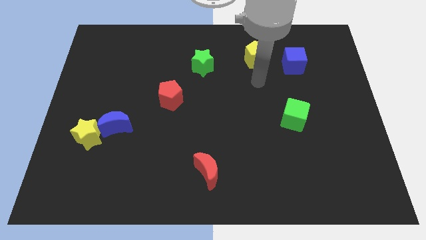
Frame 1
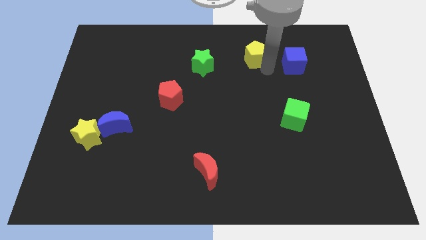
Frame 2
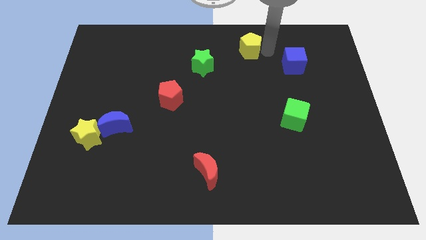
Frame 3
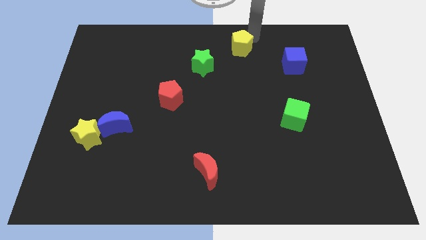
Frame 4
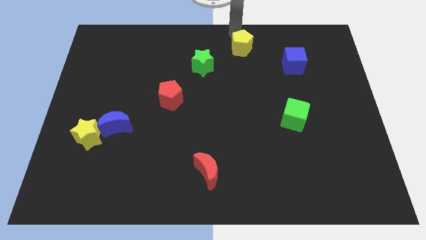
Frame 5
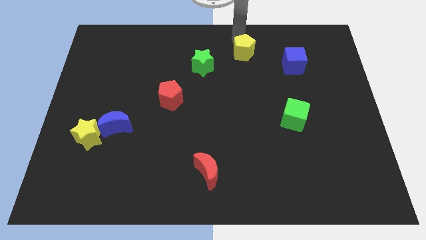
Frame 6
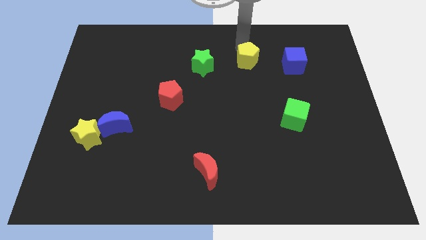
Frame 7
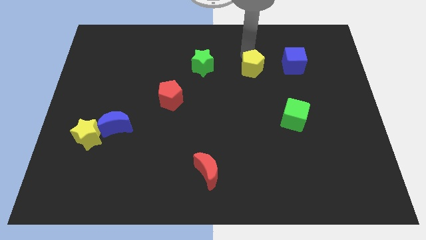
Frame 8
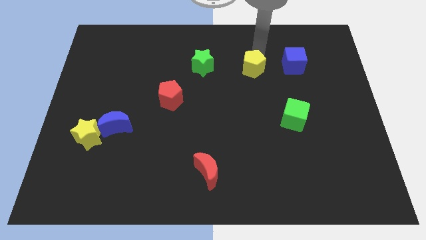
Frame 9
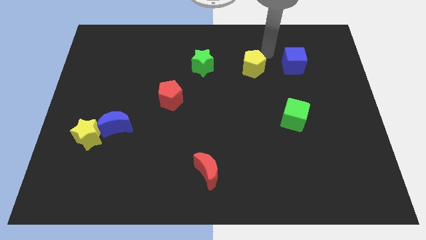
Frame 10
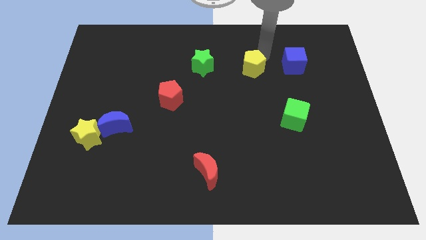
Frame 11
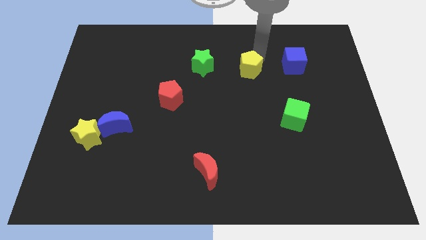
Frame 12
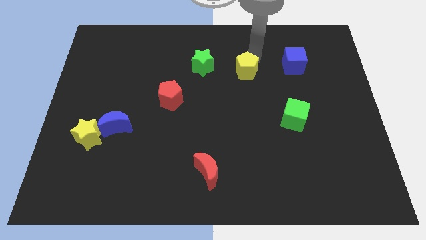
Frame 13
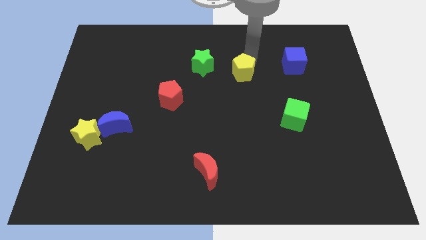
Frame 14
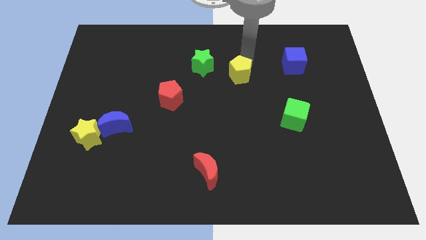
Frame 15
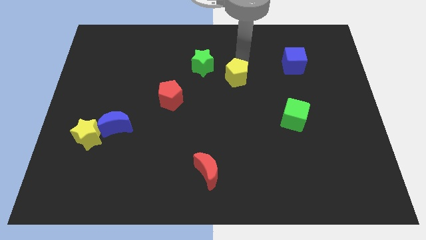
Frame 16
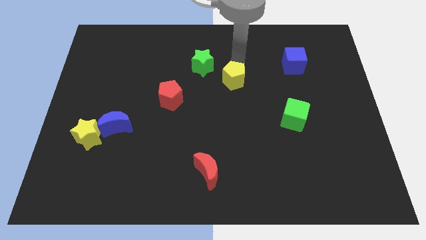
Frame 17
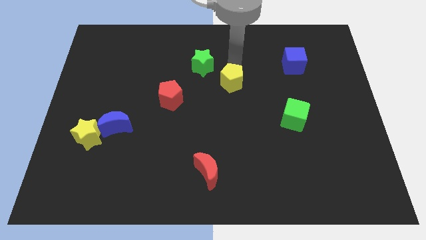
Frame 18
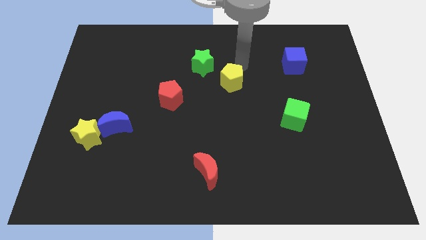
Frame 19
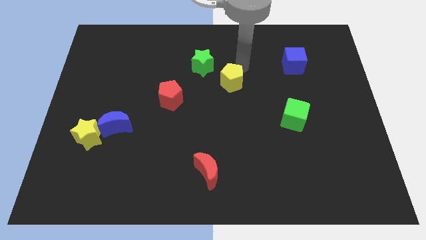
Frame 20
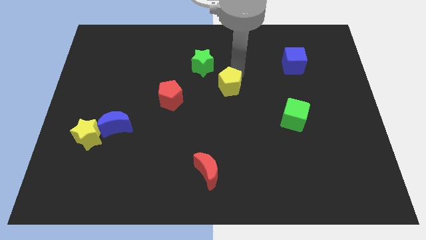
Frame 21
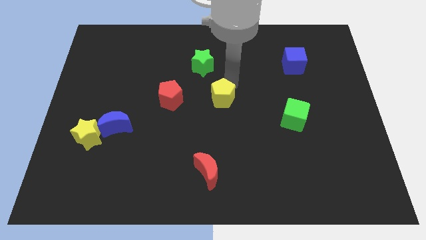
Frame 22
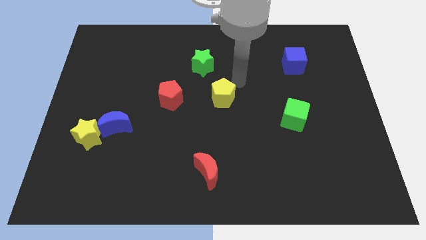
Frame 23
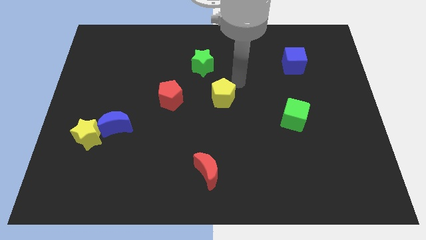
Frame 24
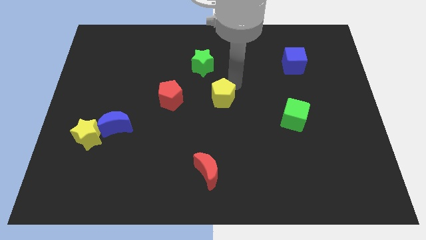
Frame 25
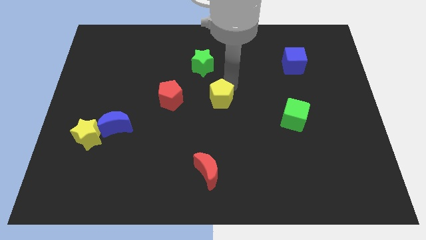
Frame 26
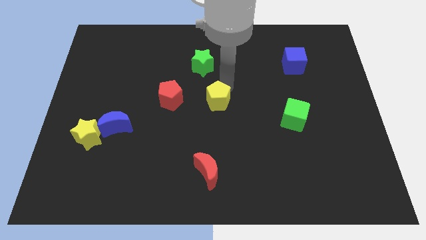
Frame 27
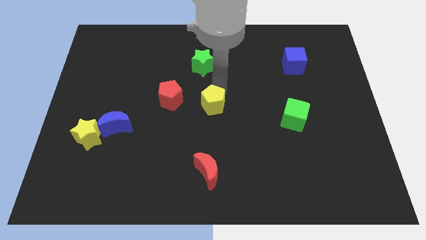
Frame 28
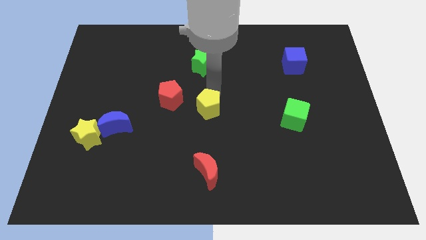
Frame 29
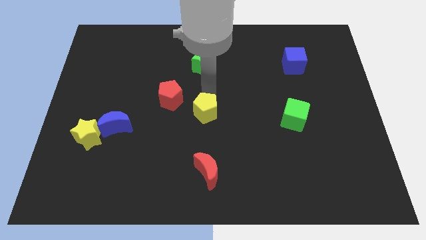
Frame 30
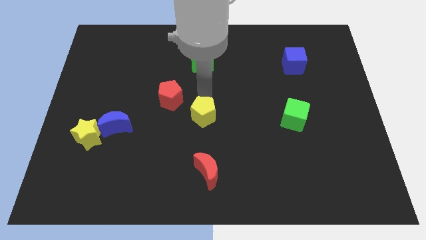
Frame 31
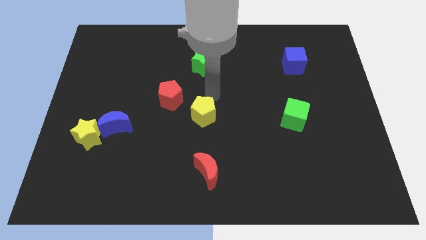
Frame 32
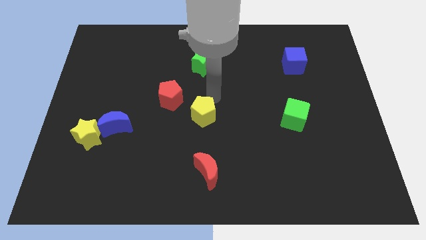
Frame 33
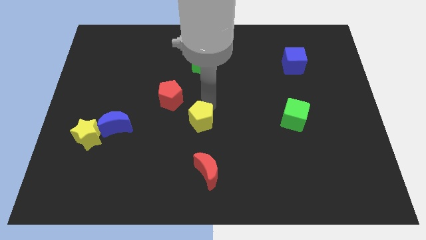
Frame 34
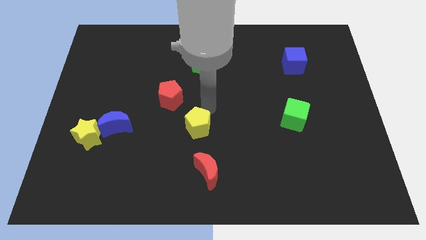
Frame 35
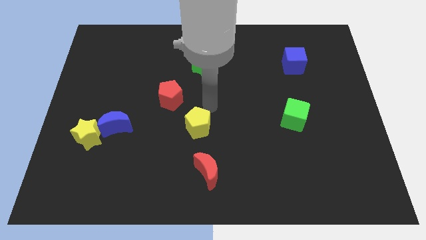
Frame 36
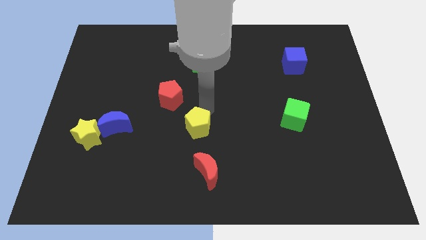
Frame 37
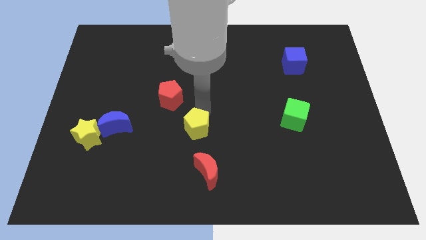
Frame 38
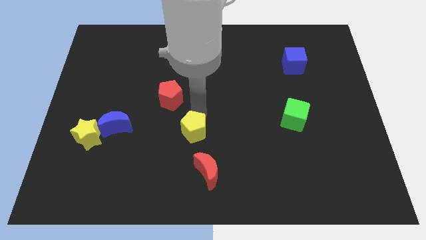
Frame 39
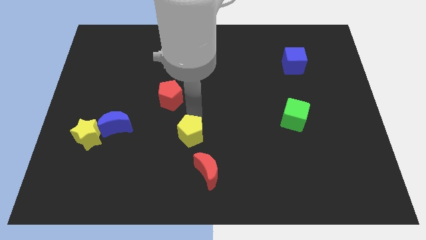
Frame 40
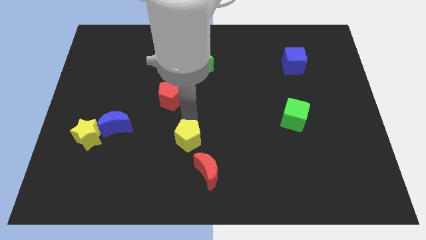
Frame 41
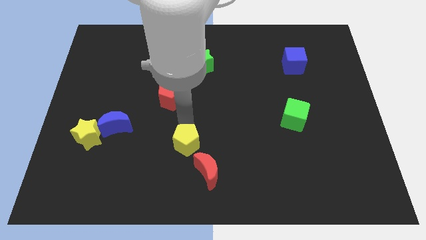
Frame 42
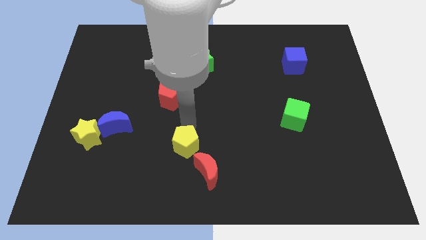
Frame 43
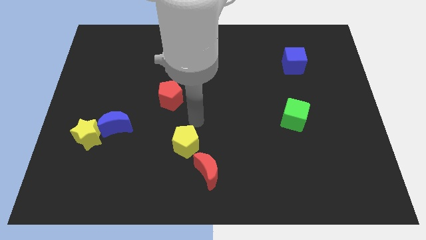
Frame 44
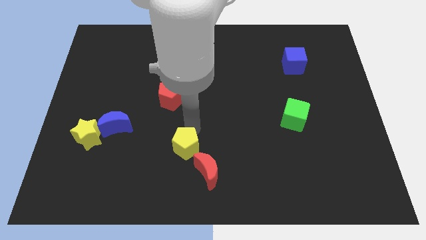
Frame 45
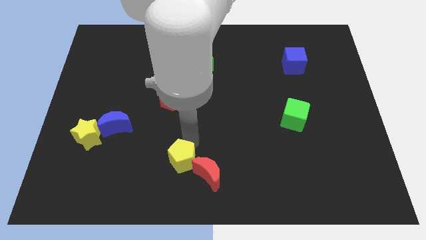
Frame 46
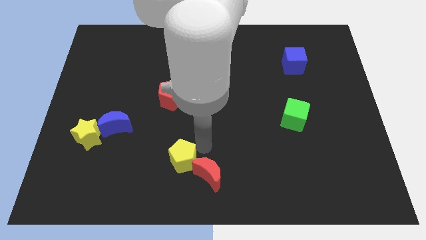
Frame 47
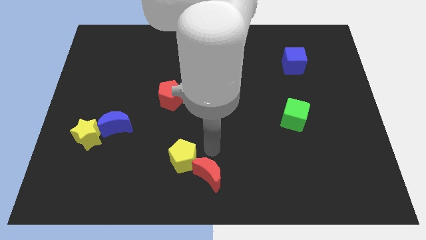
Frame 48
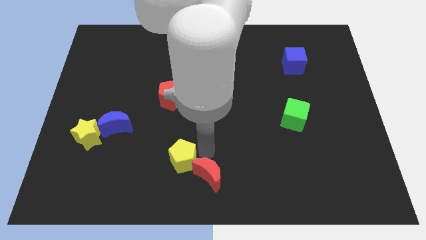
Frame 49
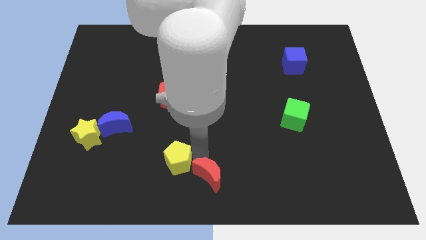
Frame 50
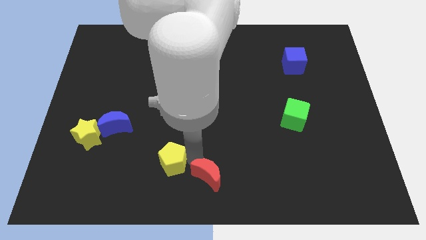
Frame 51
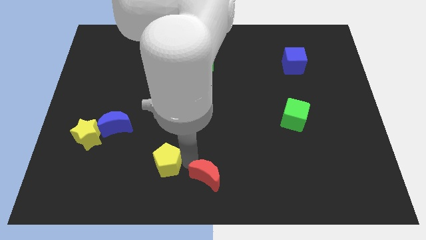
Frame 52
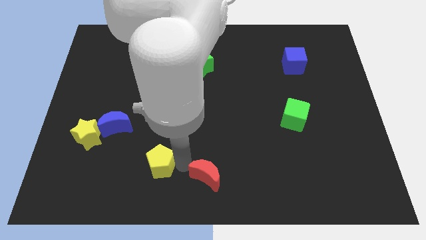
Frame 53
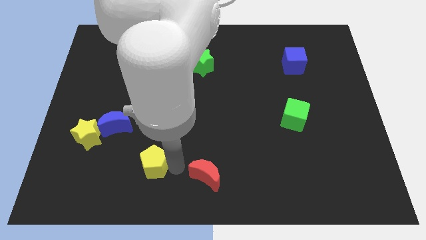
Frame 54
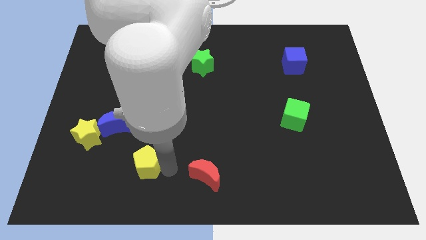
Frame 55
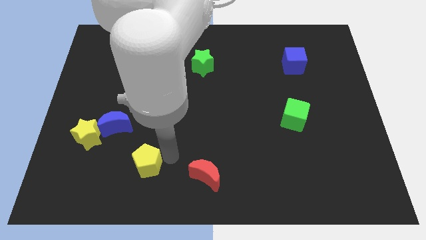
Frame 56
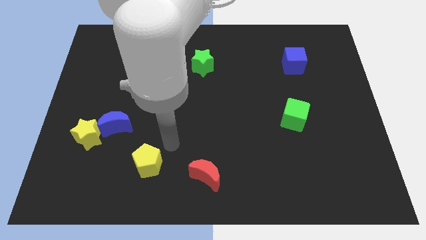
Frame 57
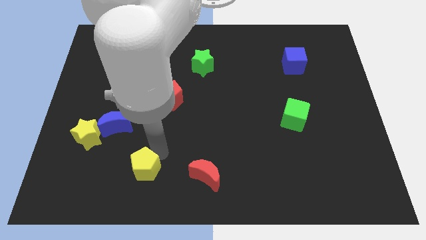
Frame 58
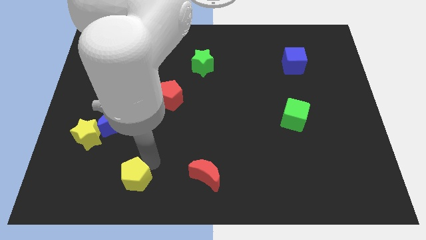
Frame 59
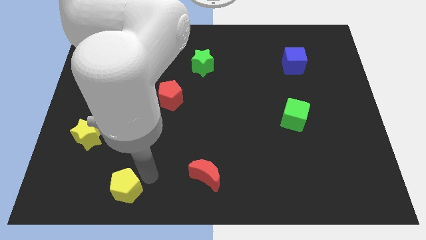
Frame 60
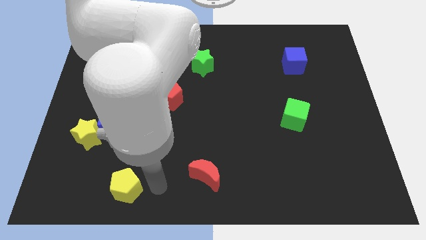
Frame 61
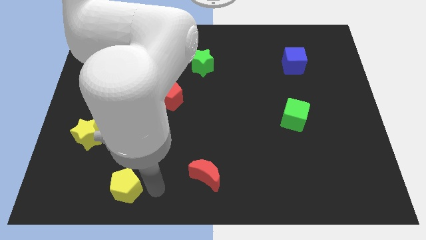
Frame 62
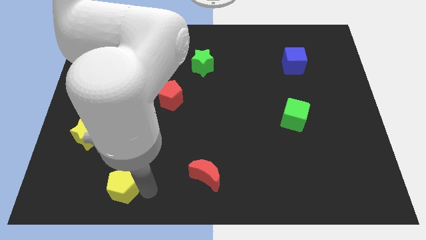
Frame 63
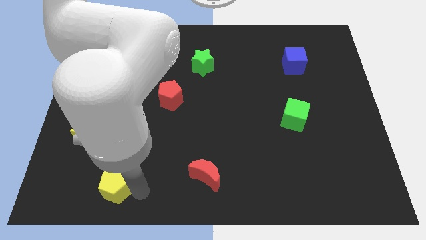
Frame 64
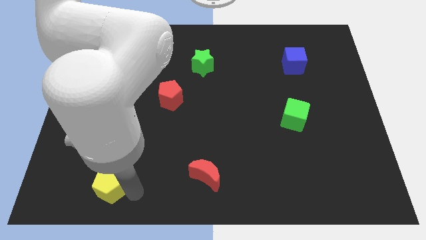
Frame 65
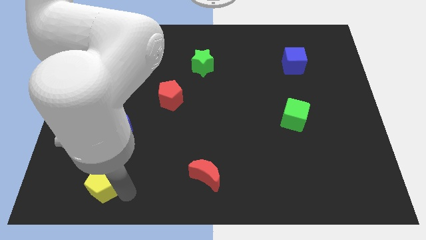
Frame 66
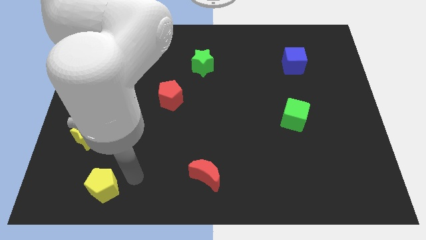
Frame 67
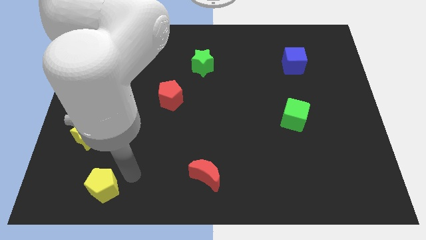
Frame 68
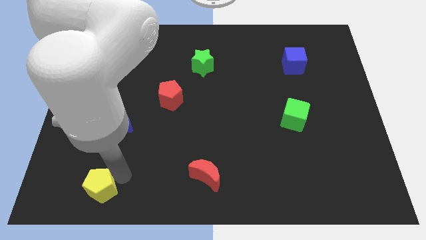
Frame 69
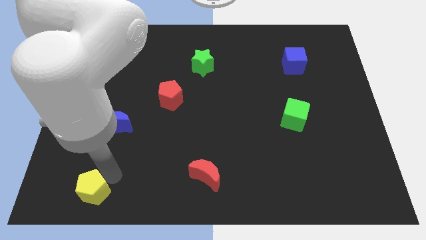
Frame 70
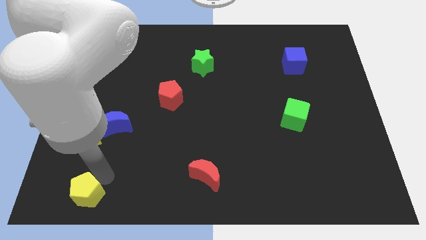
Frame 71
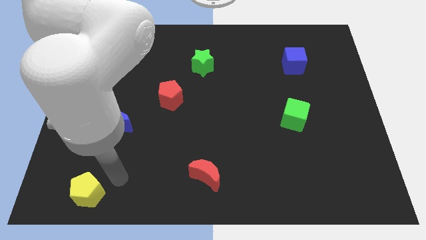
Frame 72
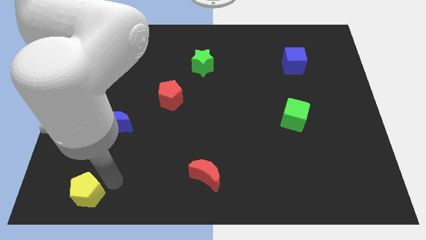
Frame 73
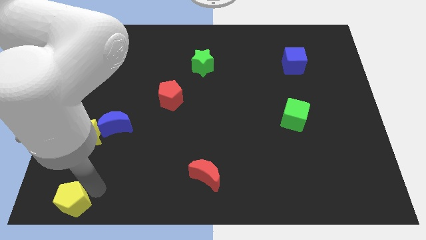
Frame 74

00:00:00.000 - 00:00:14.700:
put the yellow pentagon to the bottom left
